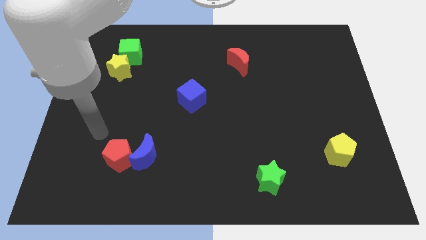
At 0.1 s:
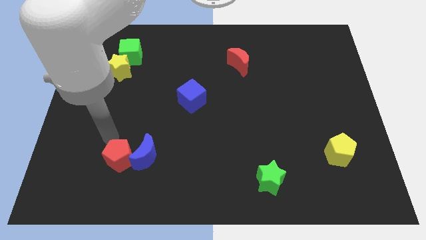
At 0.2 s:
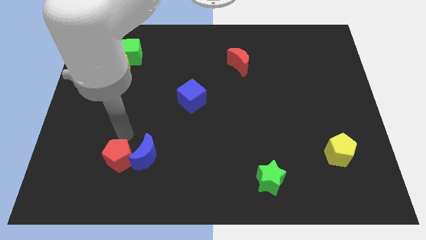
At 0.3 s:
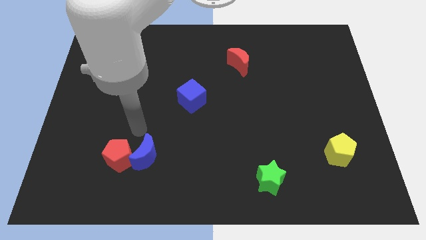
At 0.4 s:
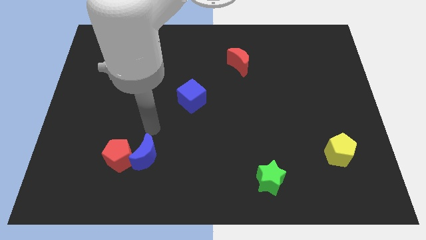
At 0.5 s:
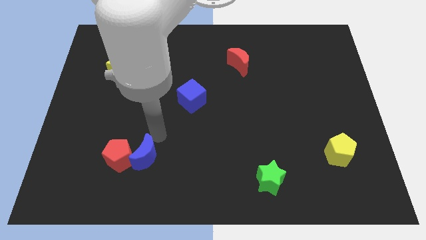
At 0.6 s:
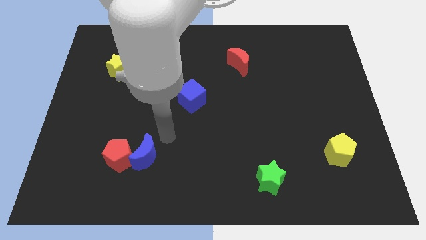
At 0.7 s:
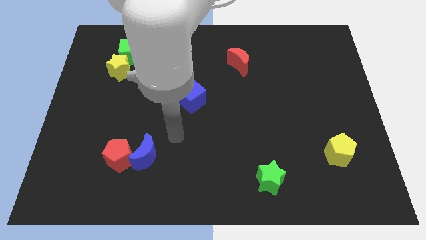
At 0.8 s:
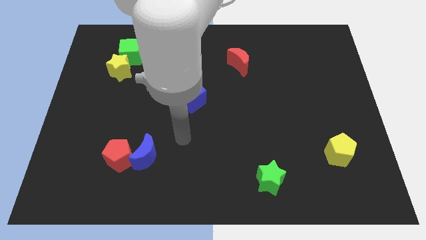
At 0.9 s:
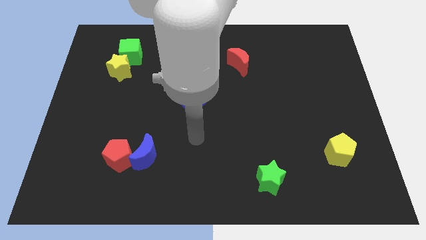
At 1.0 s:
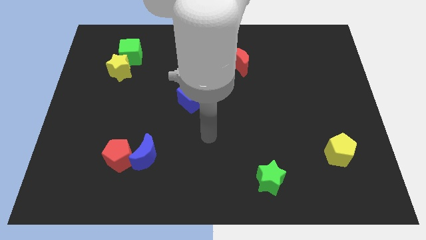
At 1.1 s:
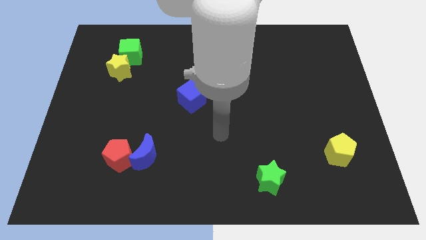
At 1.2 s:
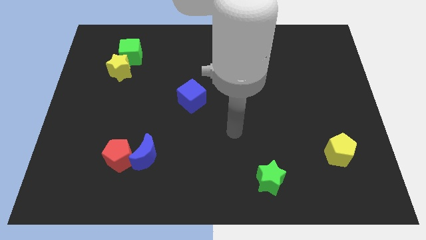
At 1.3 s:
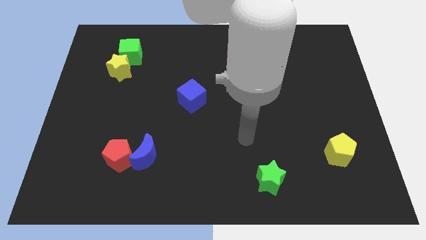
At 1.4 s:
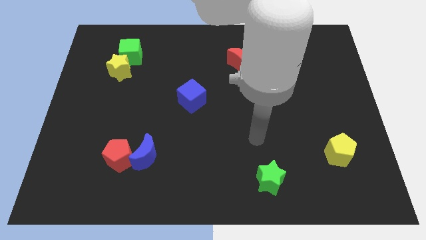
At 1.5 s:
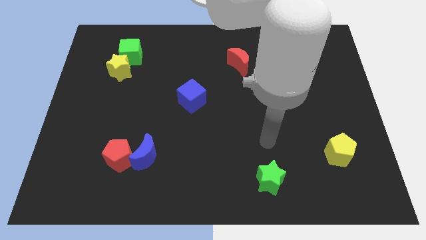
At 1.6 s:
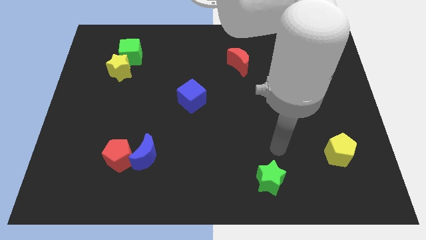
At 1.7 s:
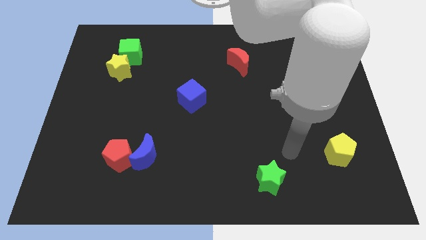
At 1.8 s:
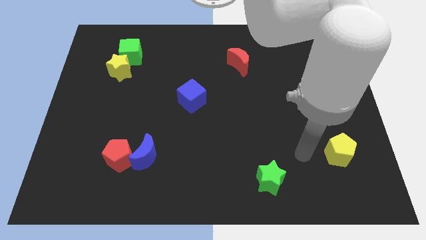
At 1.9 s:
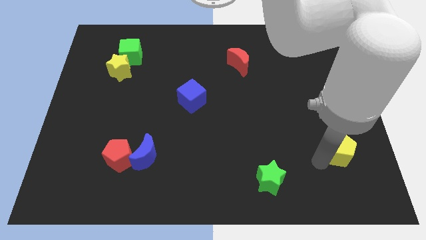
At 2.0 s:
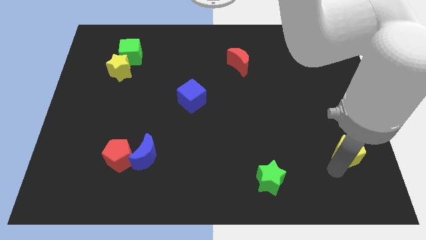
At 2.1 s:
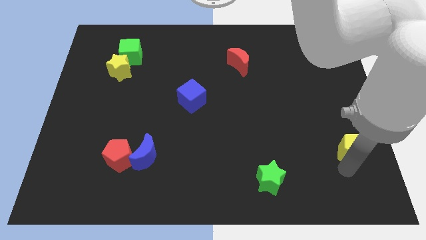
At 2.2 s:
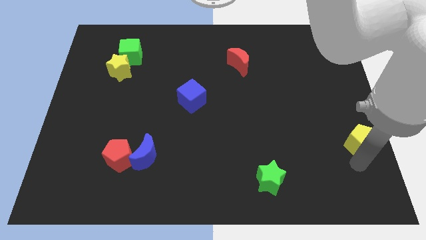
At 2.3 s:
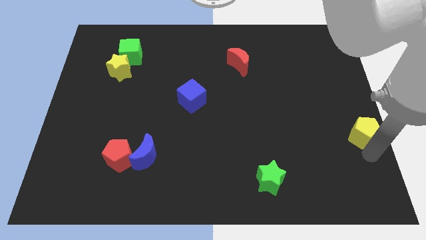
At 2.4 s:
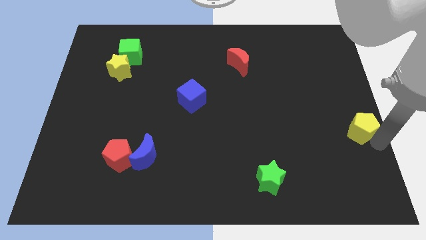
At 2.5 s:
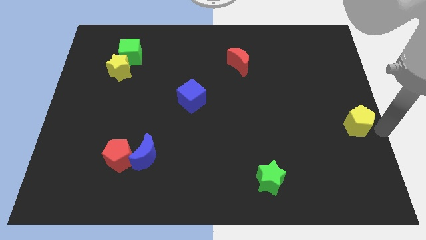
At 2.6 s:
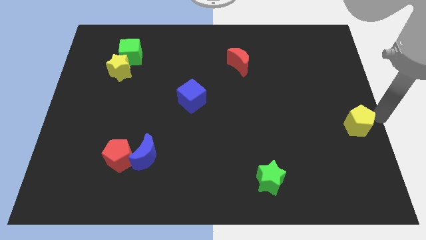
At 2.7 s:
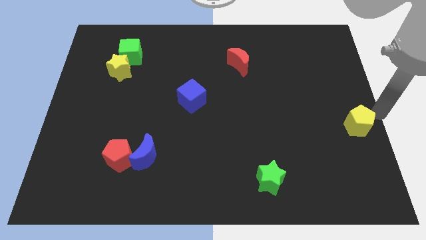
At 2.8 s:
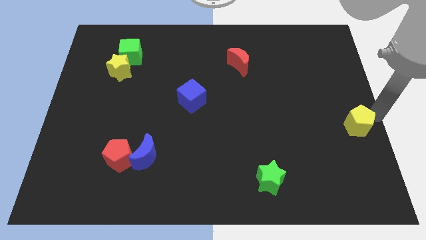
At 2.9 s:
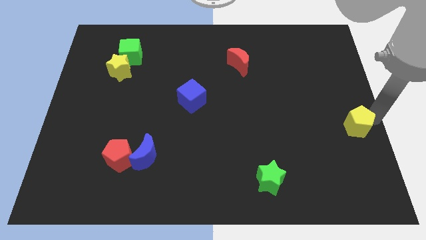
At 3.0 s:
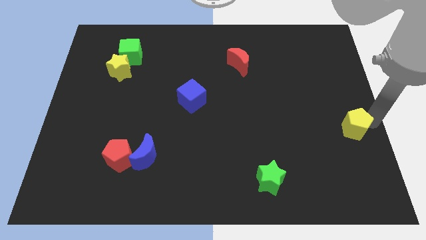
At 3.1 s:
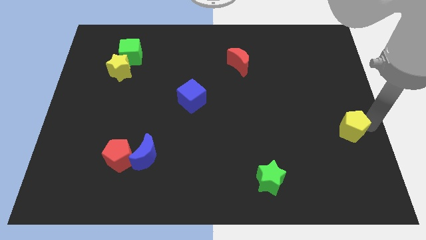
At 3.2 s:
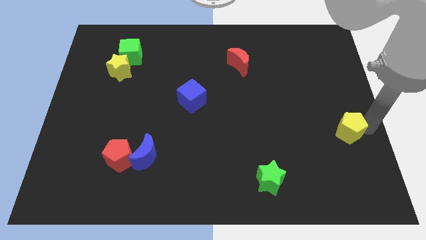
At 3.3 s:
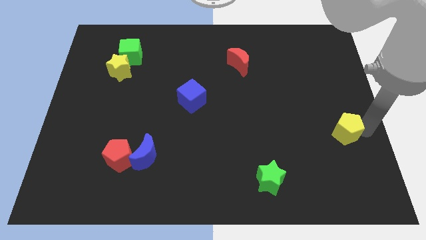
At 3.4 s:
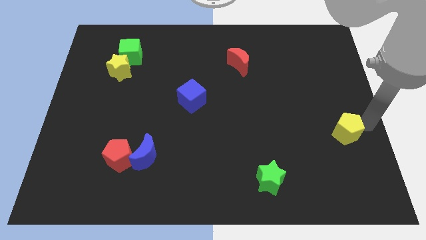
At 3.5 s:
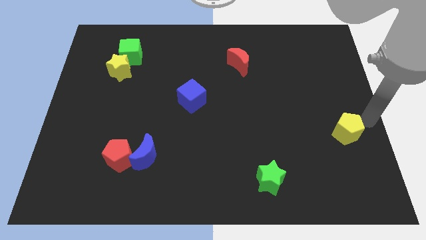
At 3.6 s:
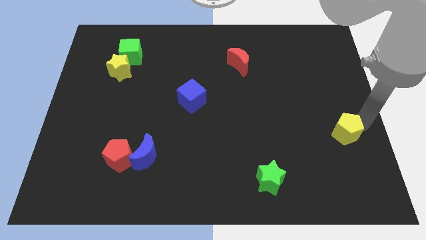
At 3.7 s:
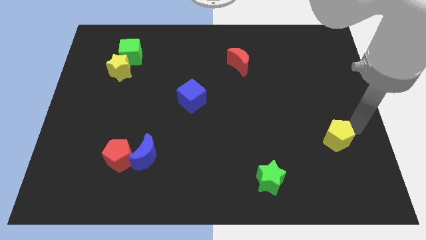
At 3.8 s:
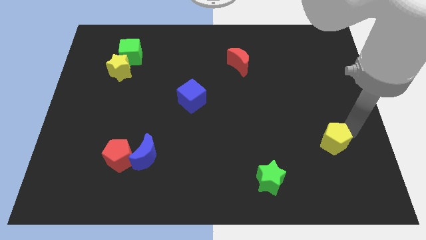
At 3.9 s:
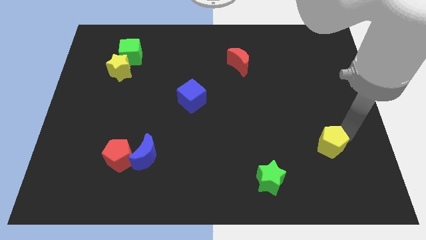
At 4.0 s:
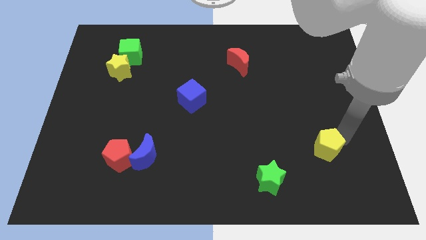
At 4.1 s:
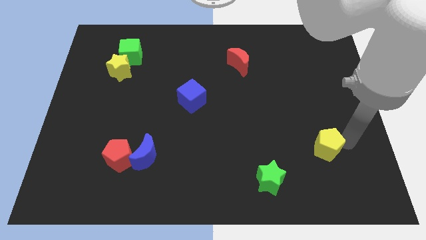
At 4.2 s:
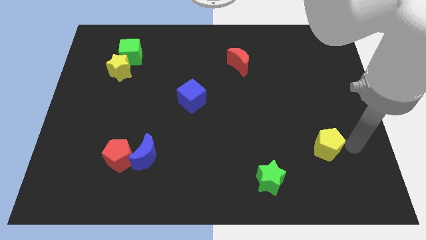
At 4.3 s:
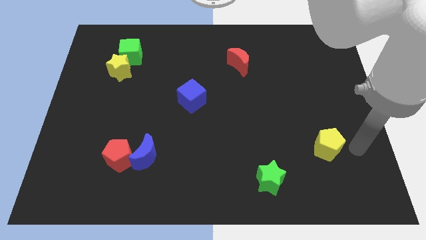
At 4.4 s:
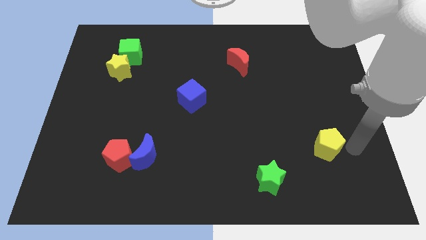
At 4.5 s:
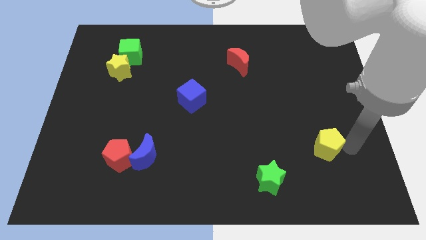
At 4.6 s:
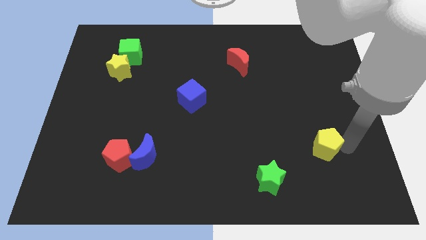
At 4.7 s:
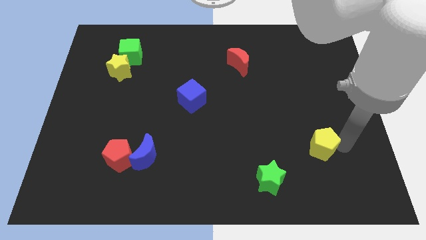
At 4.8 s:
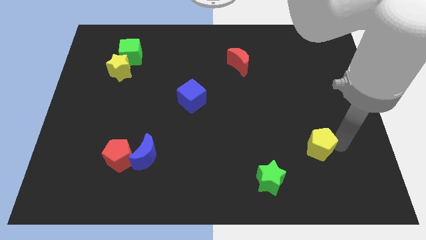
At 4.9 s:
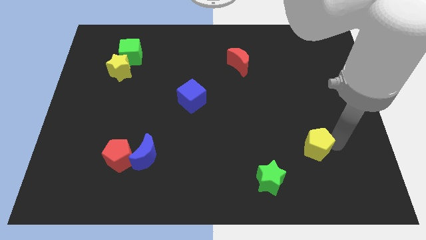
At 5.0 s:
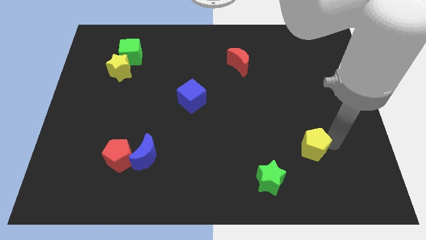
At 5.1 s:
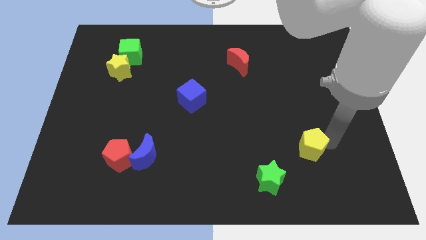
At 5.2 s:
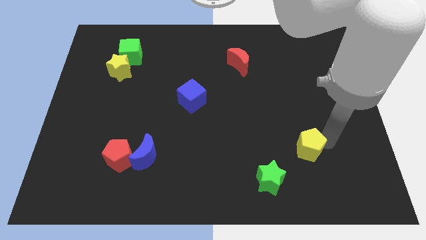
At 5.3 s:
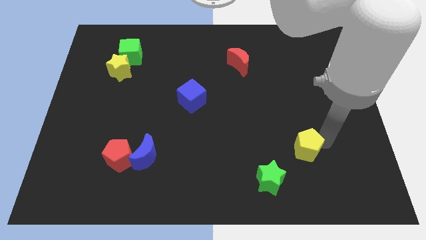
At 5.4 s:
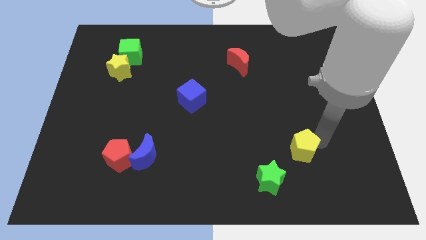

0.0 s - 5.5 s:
slide the yellow pentagon to the left a little

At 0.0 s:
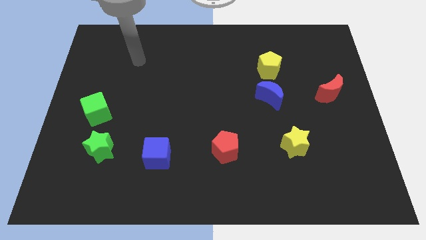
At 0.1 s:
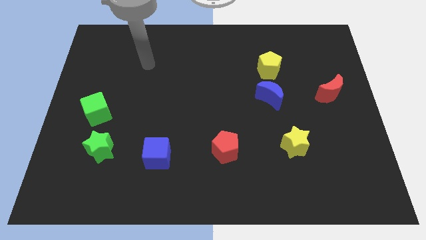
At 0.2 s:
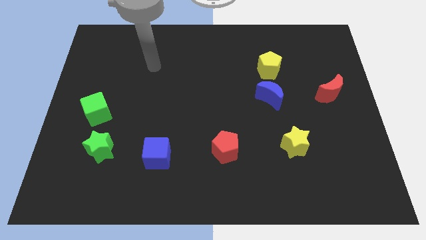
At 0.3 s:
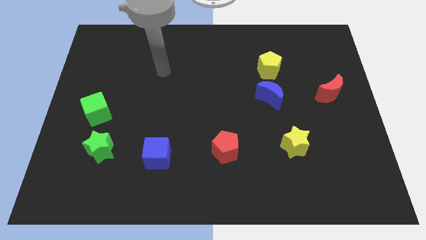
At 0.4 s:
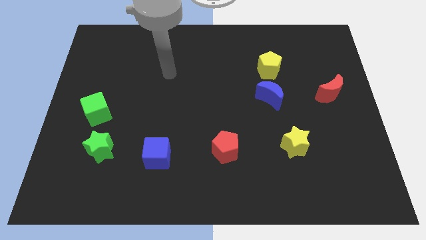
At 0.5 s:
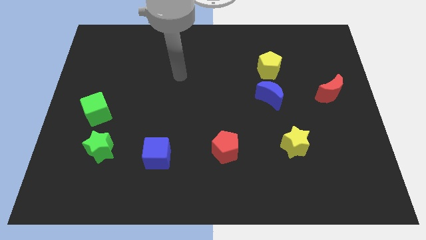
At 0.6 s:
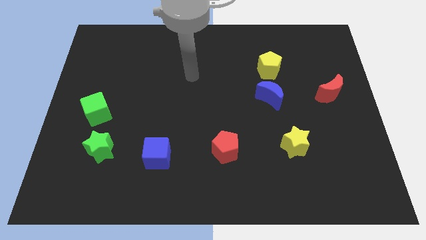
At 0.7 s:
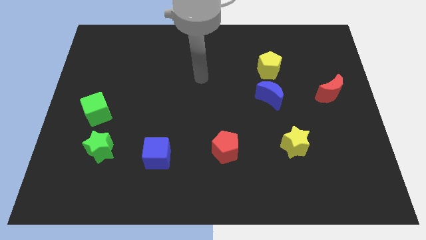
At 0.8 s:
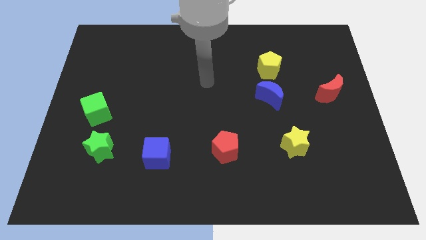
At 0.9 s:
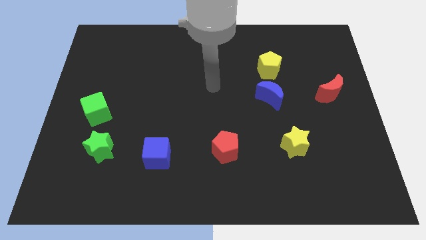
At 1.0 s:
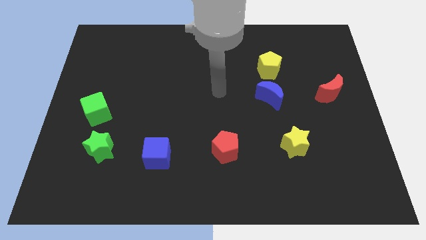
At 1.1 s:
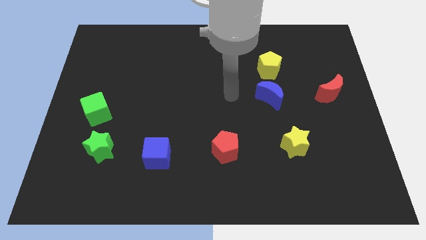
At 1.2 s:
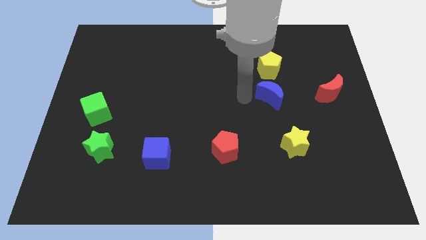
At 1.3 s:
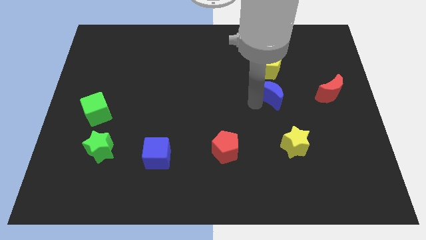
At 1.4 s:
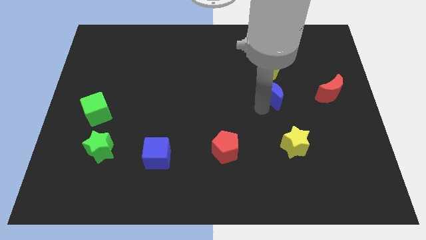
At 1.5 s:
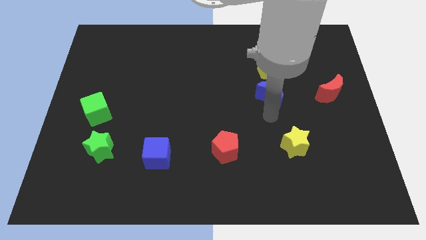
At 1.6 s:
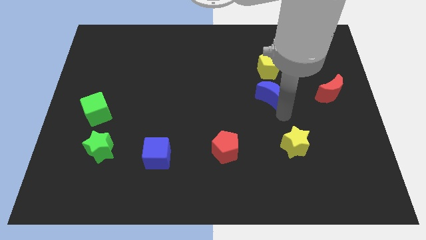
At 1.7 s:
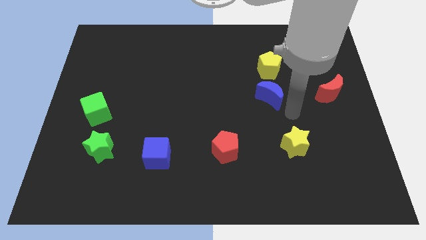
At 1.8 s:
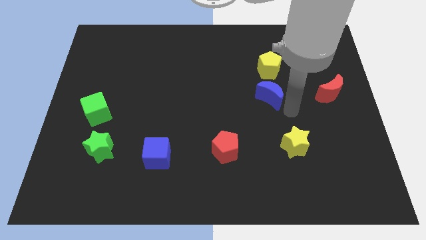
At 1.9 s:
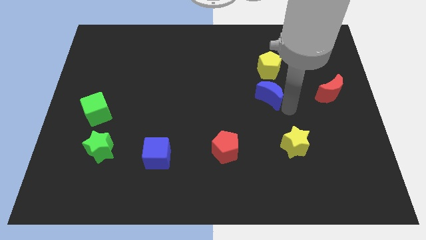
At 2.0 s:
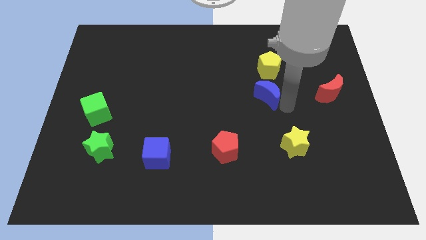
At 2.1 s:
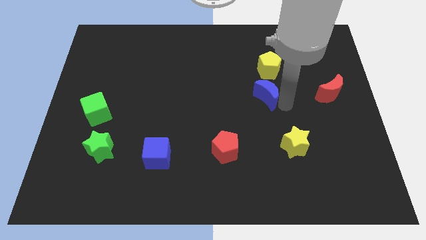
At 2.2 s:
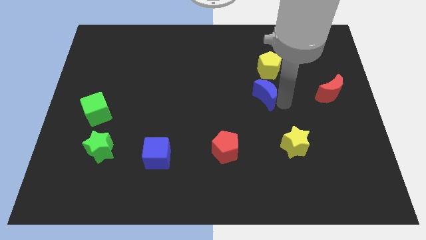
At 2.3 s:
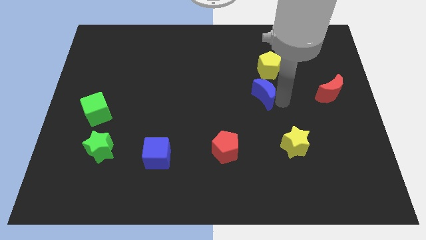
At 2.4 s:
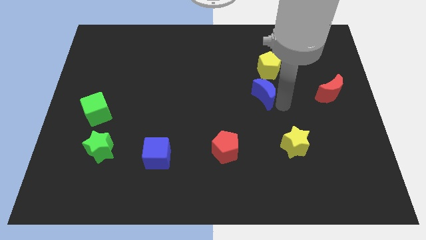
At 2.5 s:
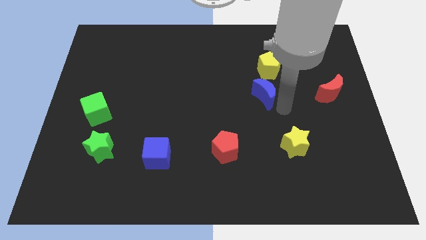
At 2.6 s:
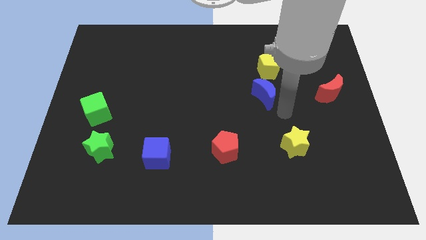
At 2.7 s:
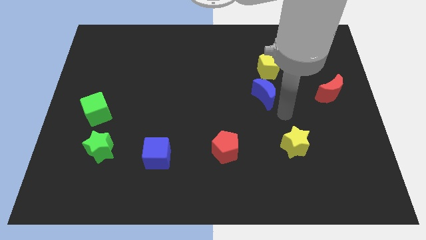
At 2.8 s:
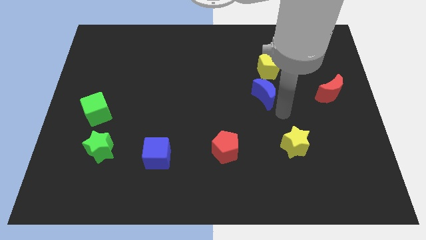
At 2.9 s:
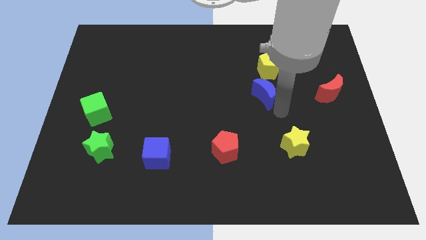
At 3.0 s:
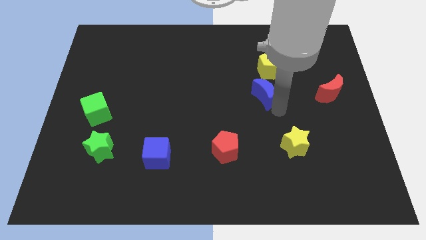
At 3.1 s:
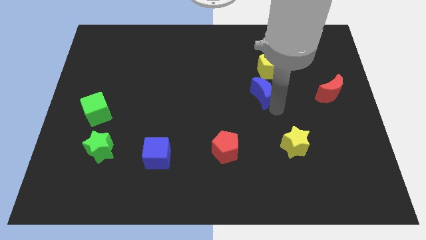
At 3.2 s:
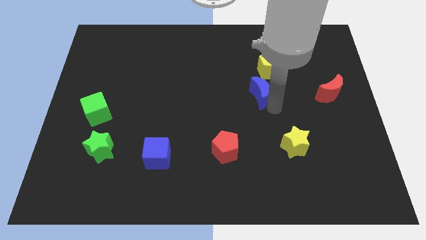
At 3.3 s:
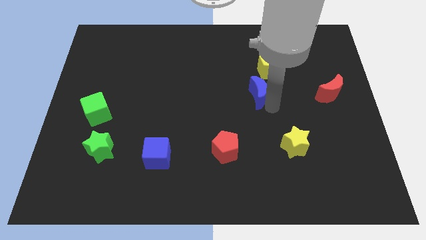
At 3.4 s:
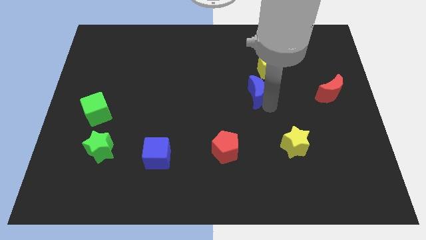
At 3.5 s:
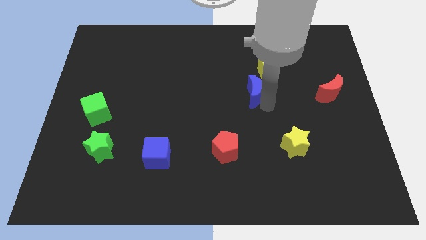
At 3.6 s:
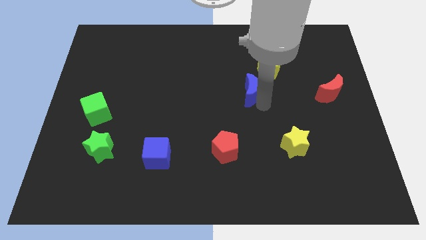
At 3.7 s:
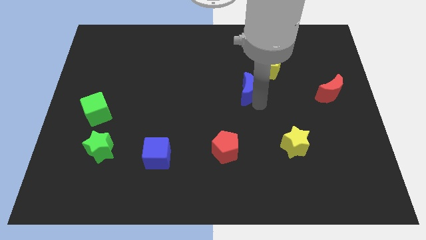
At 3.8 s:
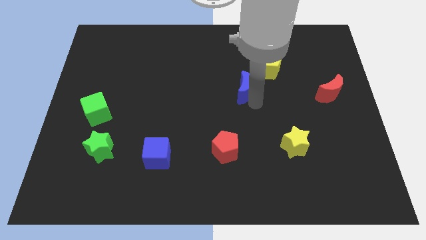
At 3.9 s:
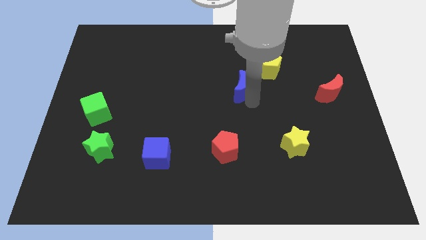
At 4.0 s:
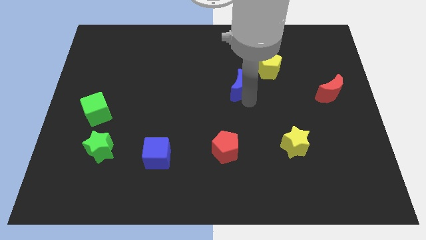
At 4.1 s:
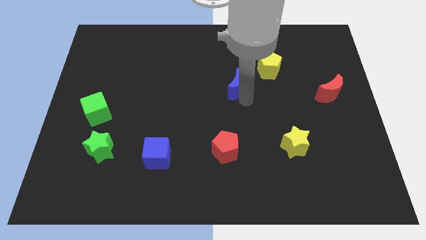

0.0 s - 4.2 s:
move the blue moon diagonally up and left slightly
